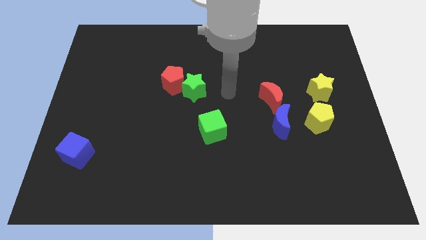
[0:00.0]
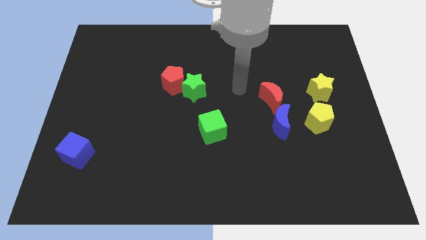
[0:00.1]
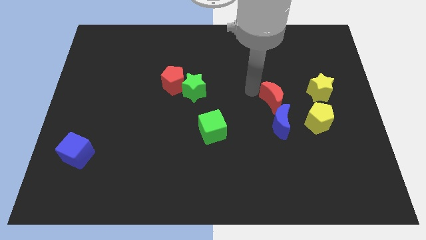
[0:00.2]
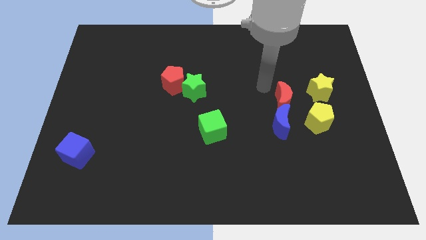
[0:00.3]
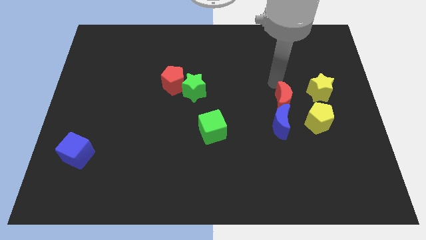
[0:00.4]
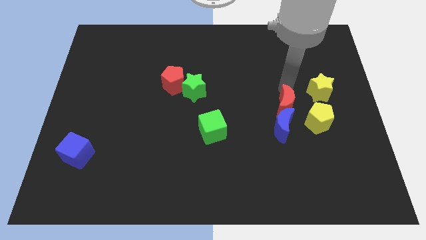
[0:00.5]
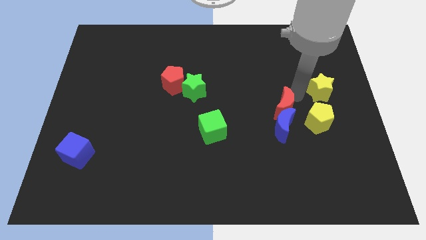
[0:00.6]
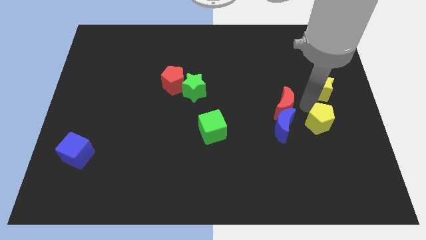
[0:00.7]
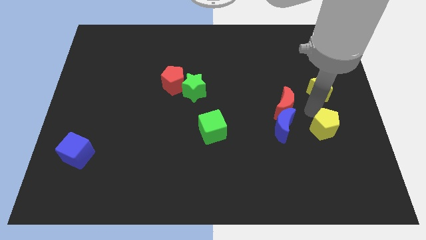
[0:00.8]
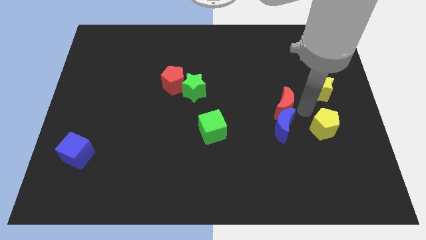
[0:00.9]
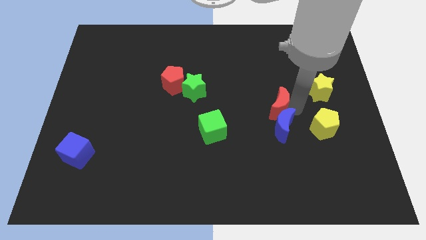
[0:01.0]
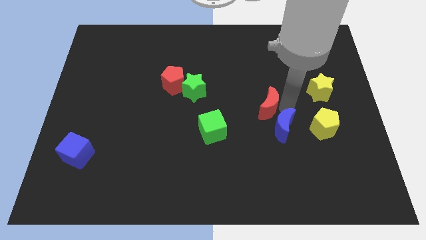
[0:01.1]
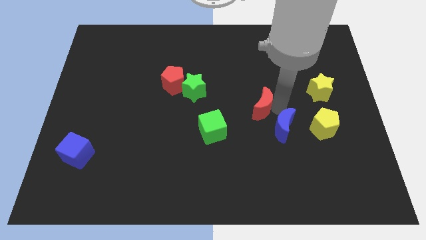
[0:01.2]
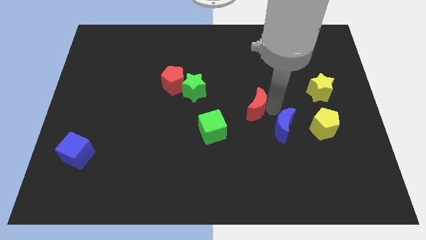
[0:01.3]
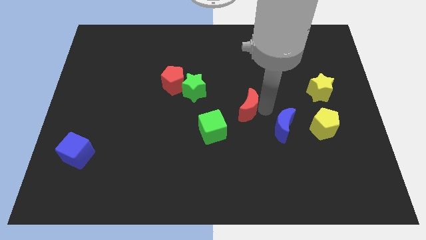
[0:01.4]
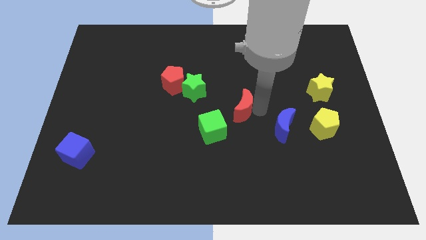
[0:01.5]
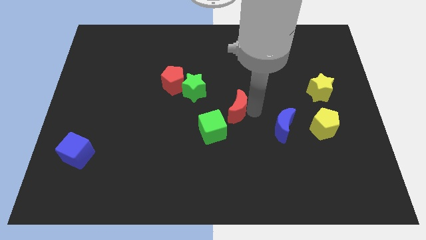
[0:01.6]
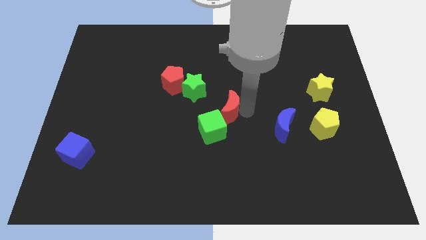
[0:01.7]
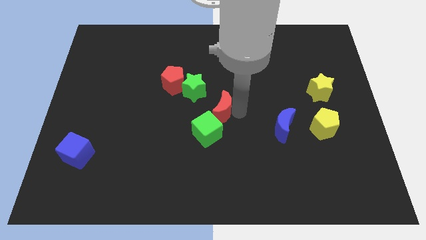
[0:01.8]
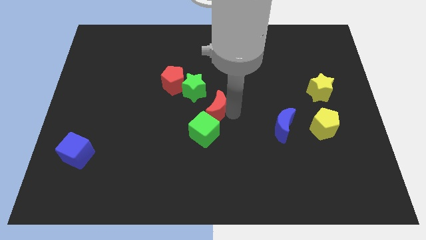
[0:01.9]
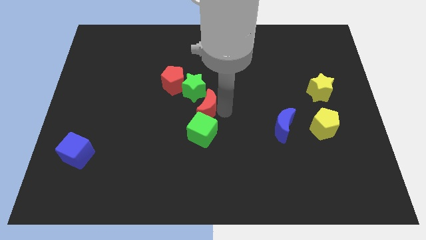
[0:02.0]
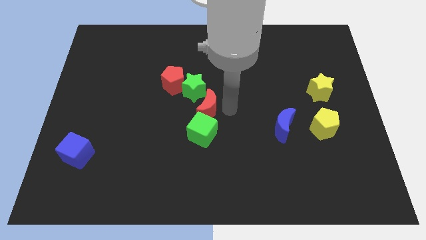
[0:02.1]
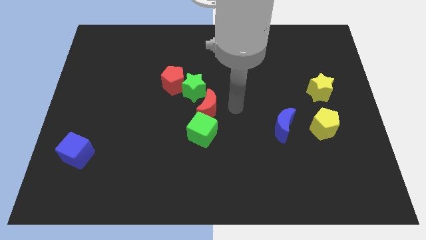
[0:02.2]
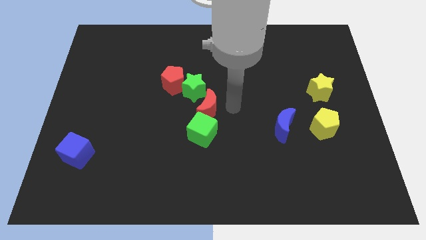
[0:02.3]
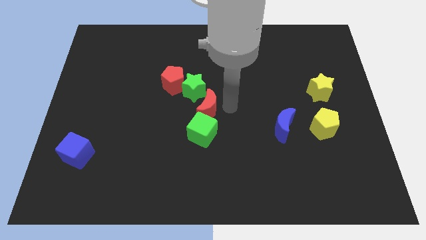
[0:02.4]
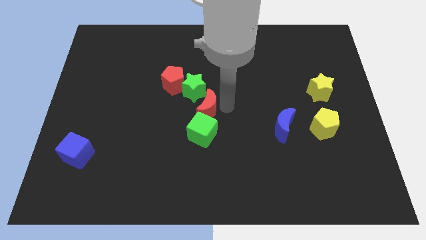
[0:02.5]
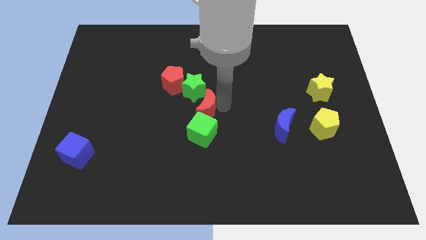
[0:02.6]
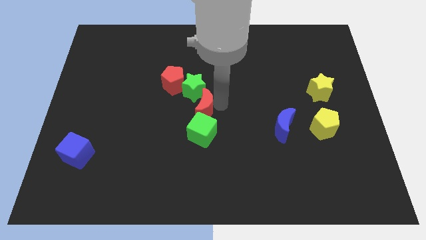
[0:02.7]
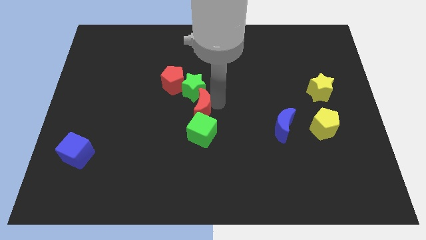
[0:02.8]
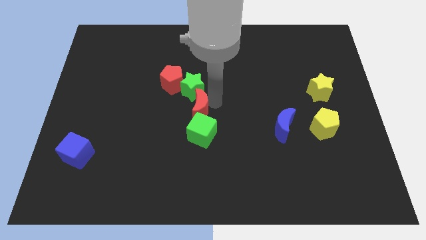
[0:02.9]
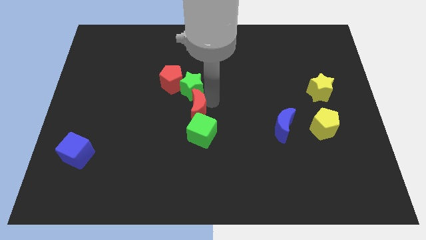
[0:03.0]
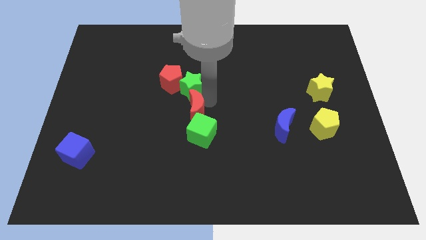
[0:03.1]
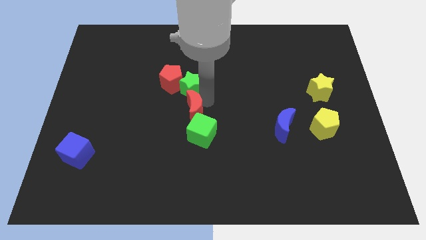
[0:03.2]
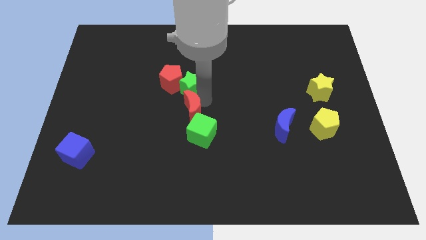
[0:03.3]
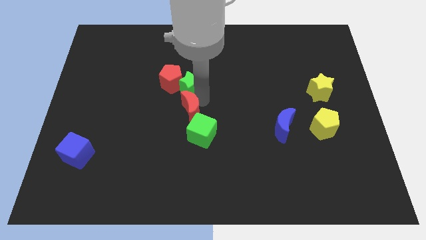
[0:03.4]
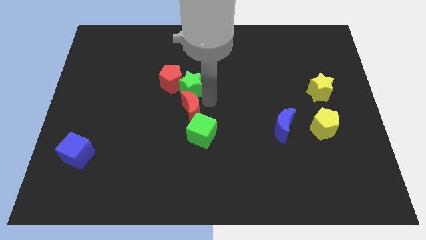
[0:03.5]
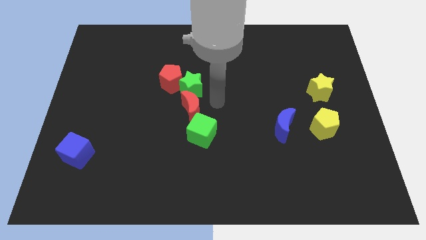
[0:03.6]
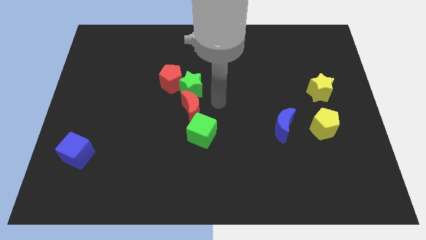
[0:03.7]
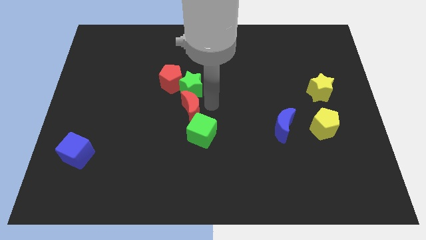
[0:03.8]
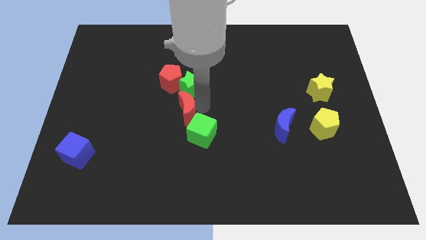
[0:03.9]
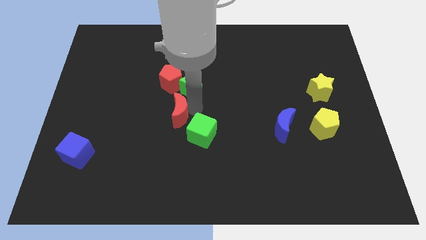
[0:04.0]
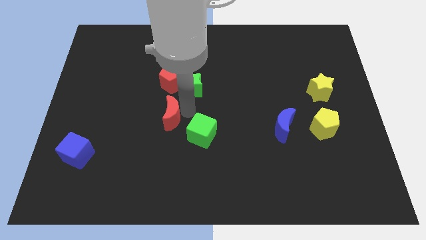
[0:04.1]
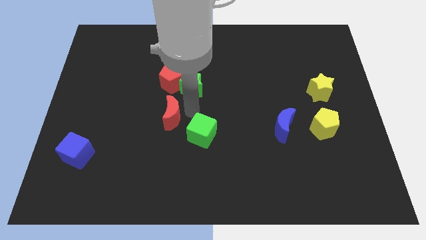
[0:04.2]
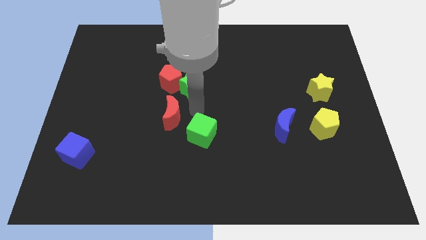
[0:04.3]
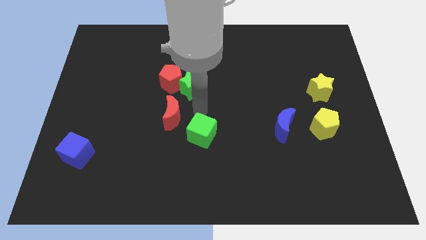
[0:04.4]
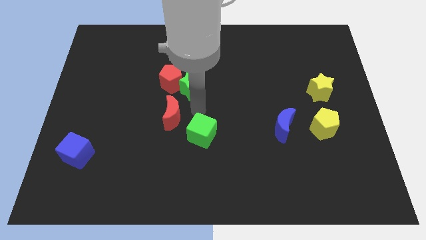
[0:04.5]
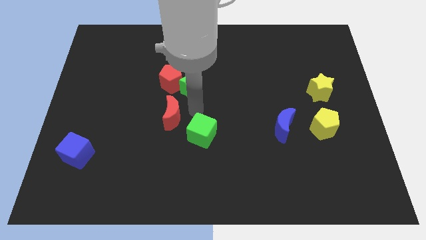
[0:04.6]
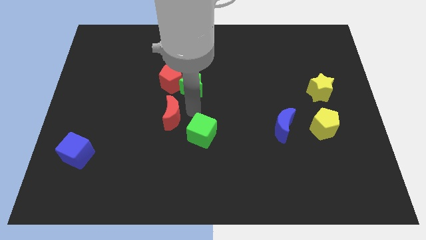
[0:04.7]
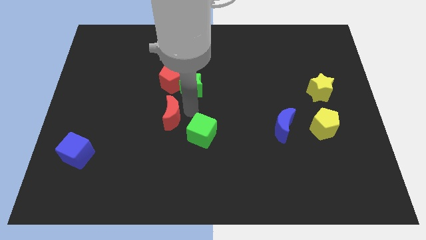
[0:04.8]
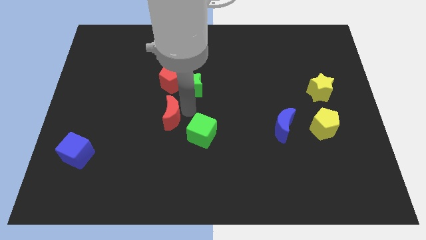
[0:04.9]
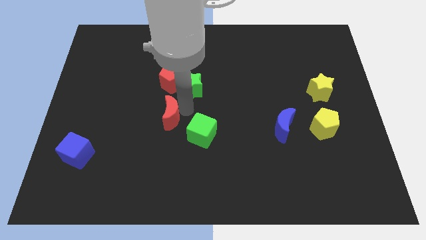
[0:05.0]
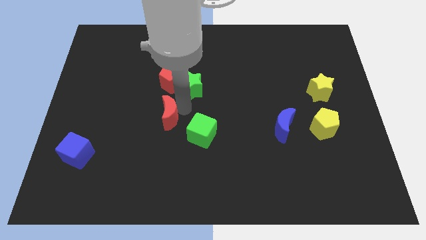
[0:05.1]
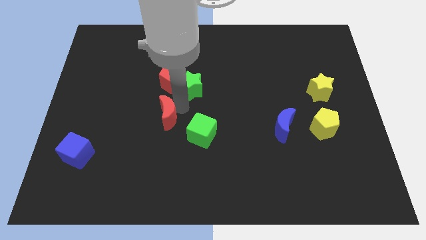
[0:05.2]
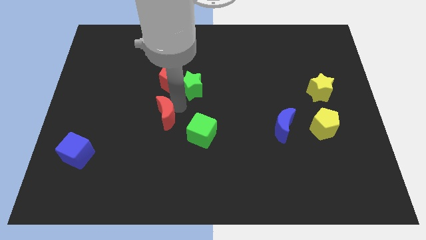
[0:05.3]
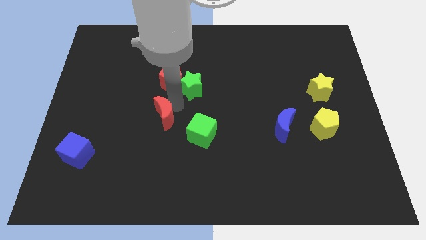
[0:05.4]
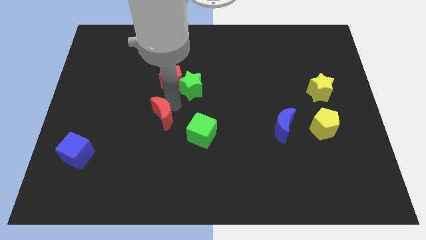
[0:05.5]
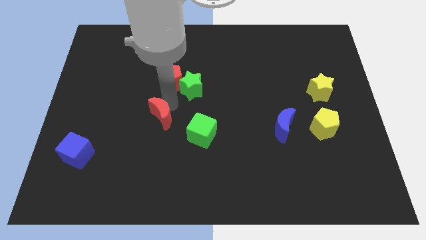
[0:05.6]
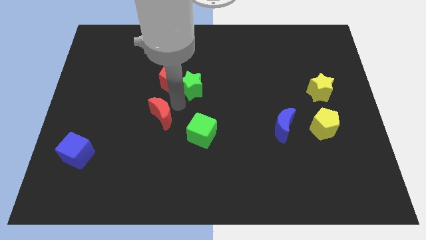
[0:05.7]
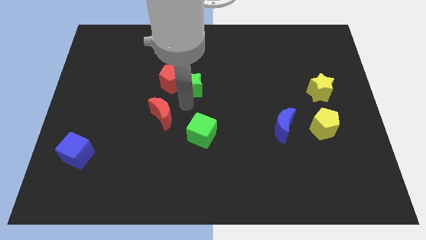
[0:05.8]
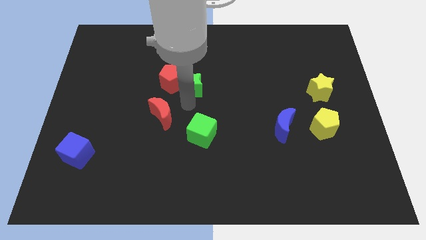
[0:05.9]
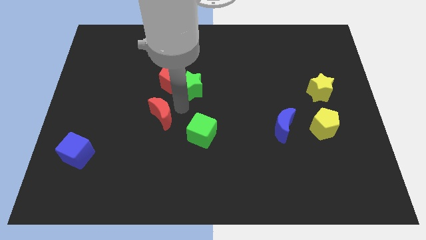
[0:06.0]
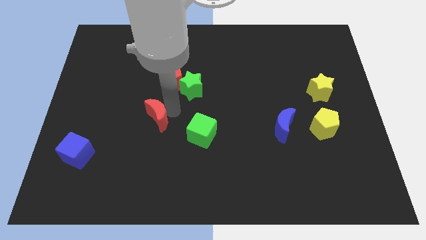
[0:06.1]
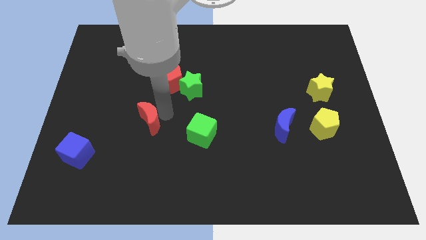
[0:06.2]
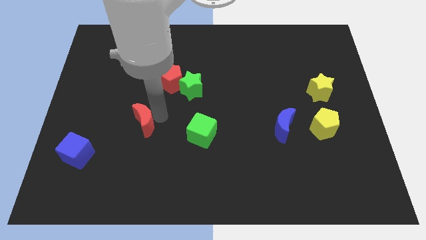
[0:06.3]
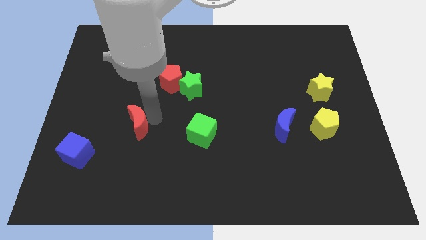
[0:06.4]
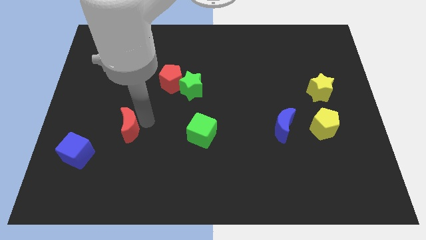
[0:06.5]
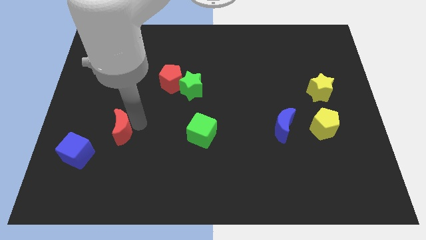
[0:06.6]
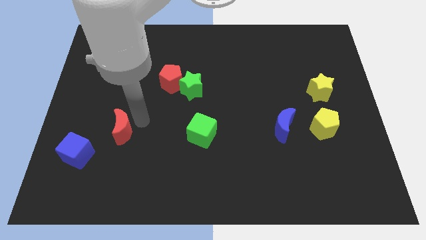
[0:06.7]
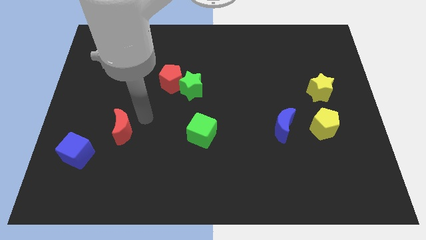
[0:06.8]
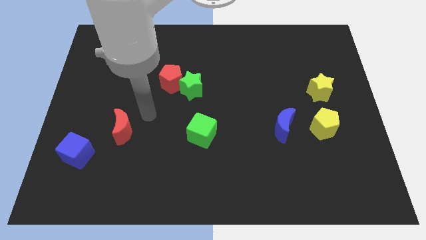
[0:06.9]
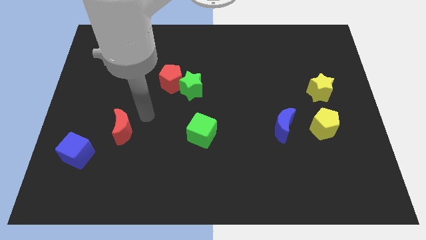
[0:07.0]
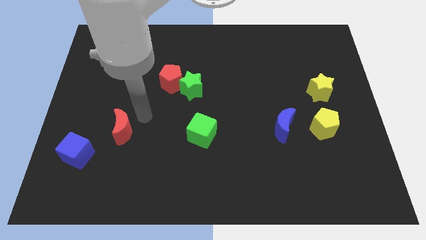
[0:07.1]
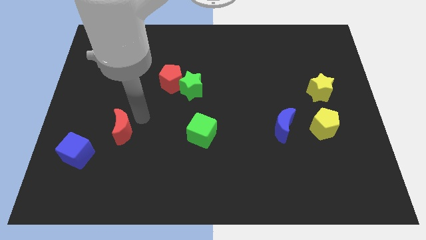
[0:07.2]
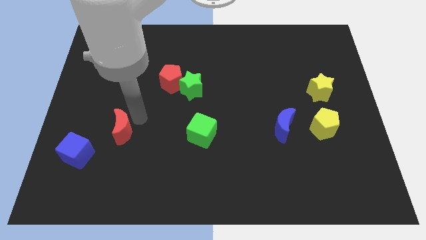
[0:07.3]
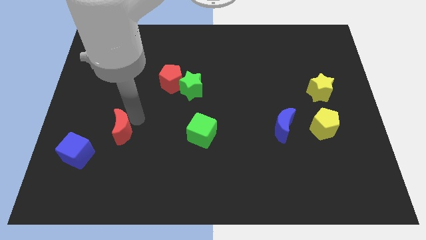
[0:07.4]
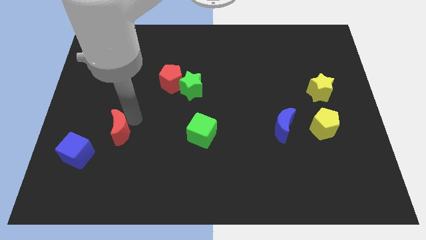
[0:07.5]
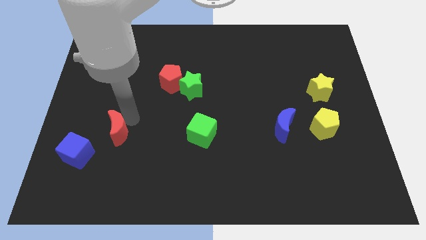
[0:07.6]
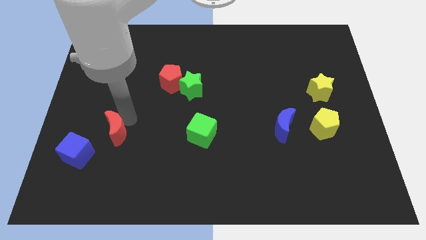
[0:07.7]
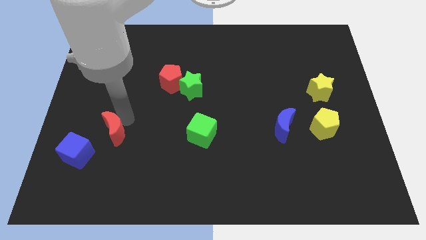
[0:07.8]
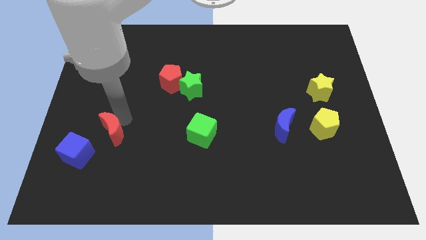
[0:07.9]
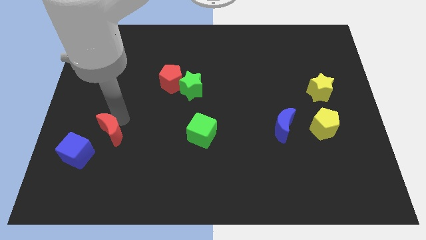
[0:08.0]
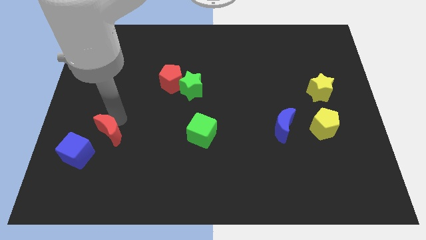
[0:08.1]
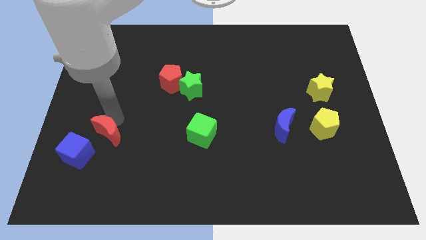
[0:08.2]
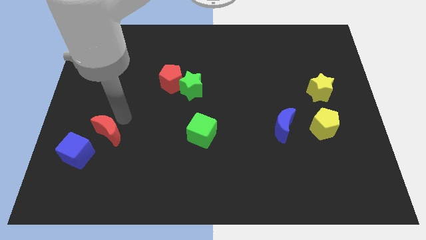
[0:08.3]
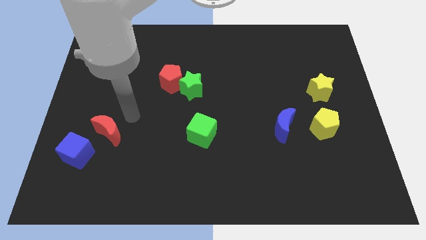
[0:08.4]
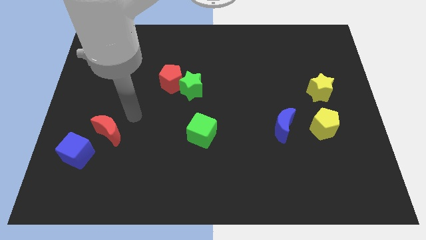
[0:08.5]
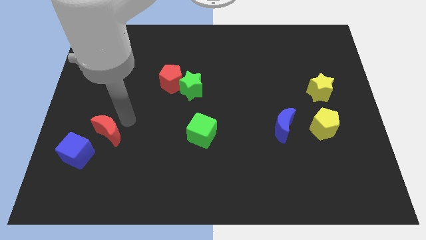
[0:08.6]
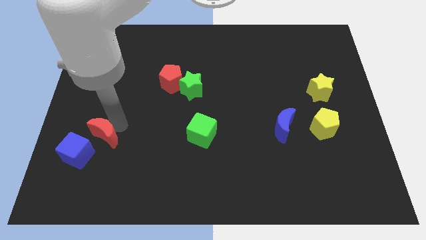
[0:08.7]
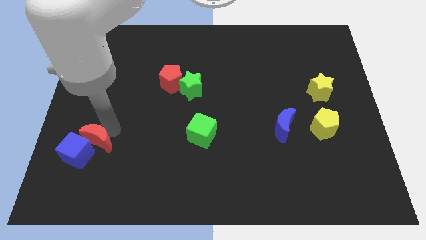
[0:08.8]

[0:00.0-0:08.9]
move the red moon towards the blue cube
